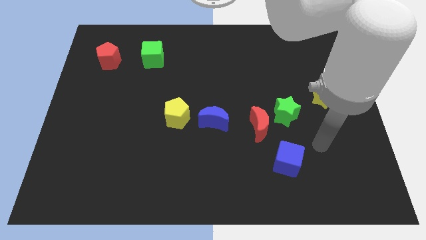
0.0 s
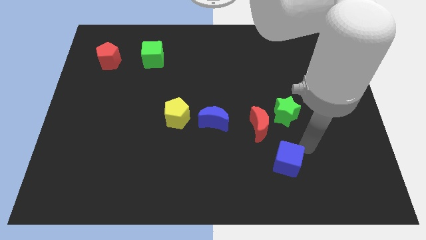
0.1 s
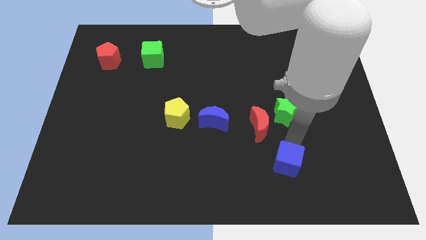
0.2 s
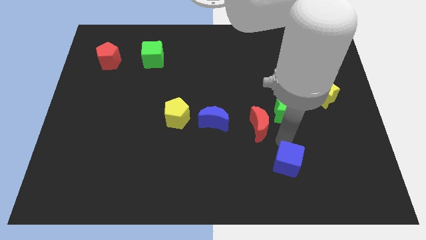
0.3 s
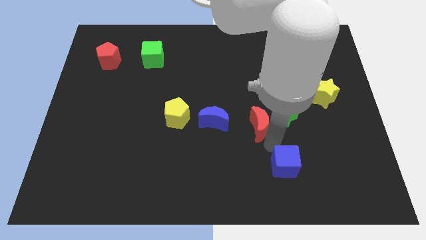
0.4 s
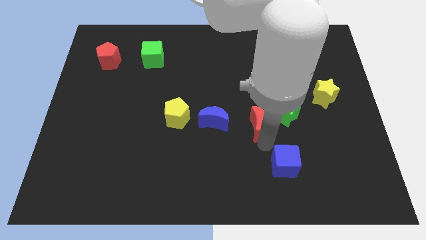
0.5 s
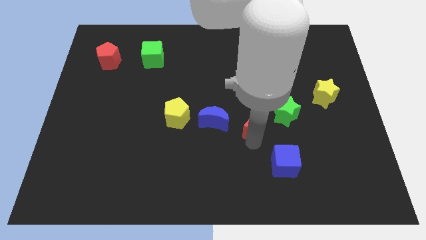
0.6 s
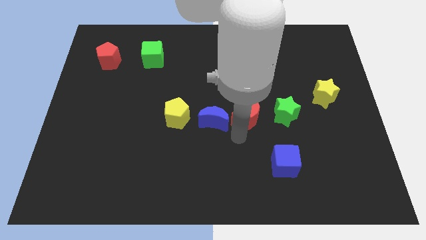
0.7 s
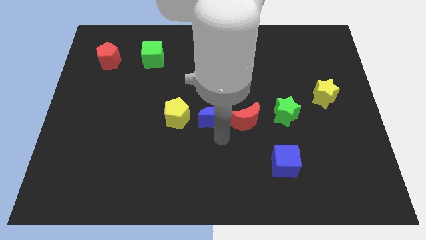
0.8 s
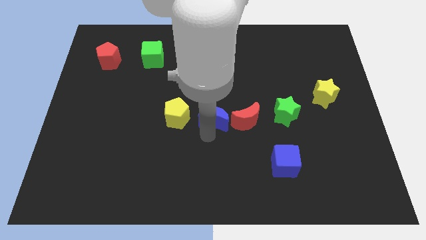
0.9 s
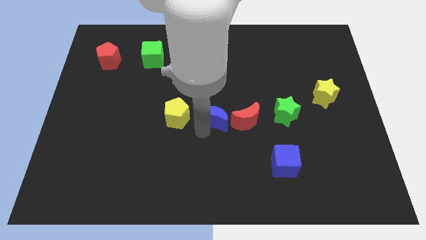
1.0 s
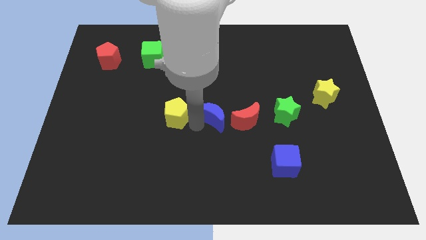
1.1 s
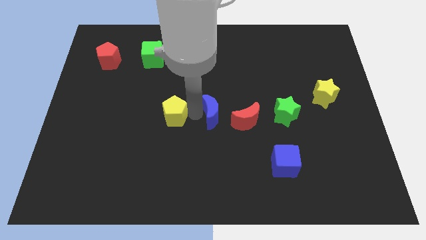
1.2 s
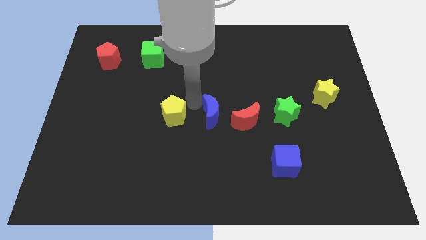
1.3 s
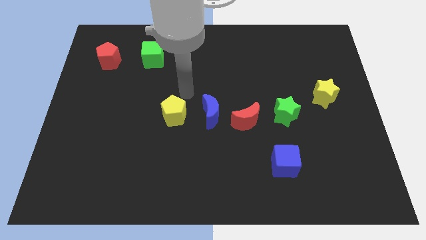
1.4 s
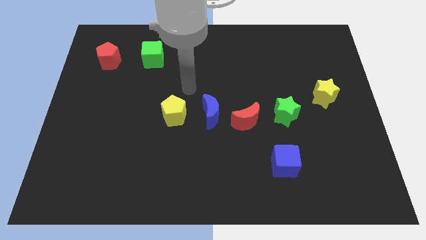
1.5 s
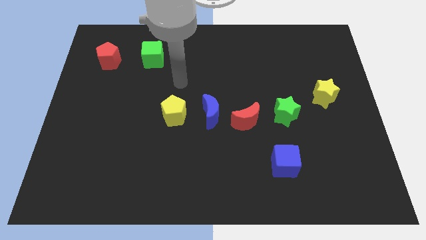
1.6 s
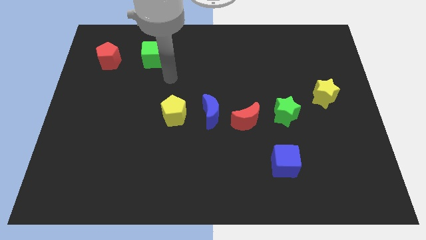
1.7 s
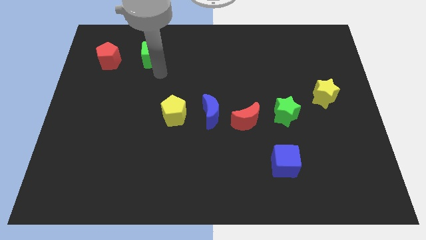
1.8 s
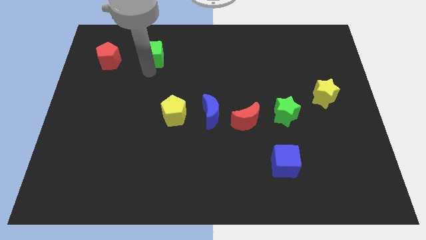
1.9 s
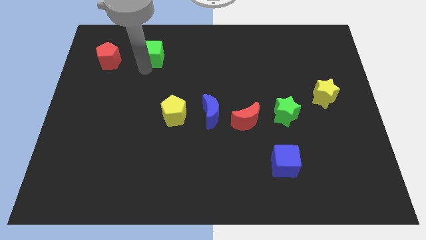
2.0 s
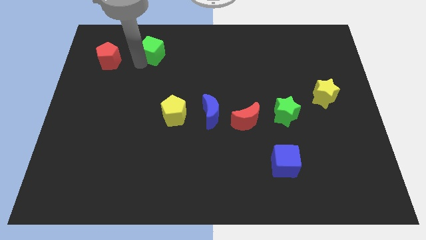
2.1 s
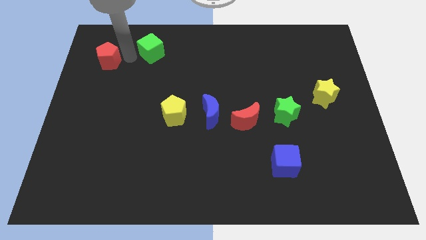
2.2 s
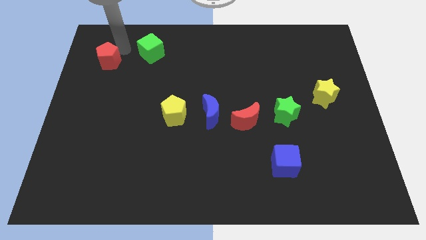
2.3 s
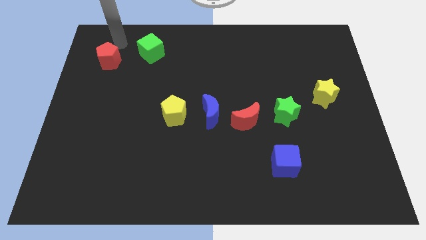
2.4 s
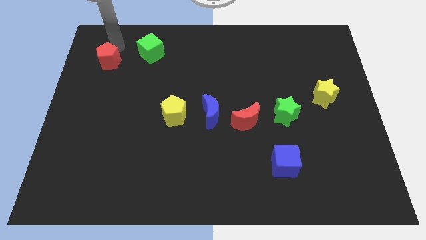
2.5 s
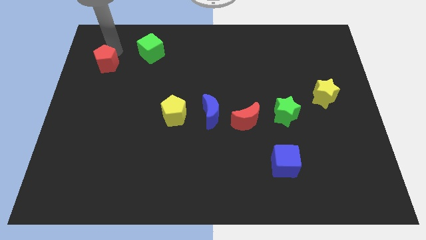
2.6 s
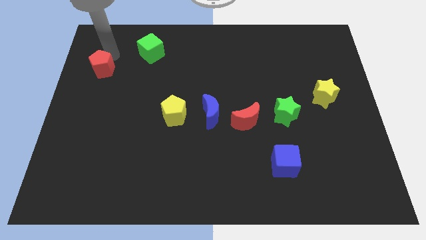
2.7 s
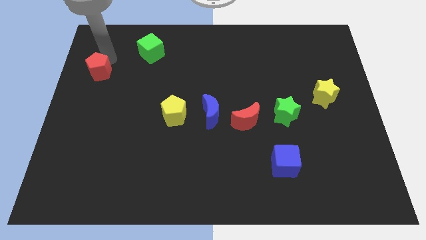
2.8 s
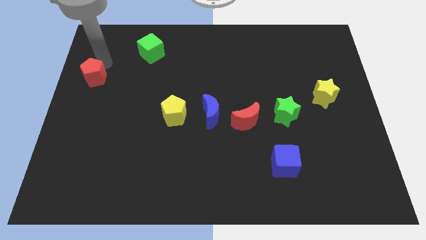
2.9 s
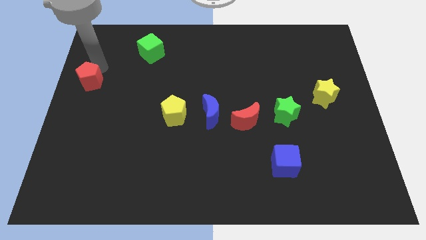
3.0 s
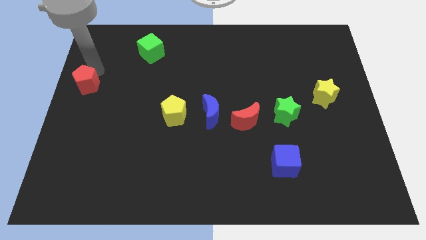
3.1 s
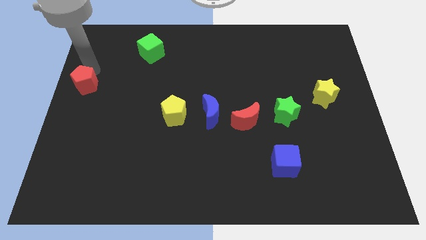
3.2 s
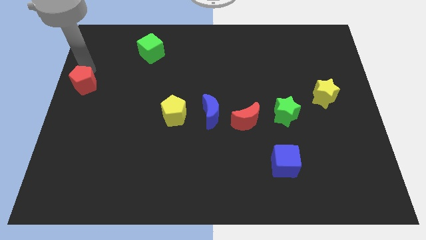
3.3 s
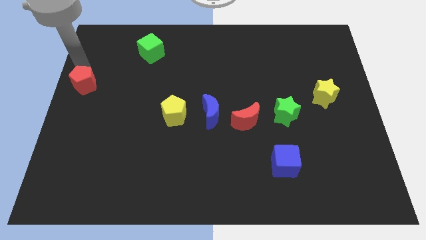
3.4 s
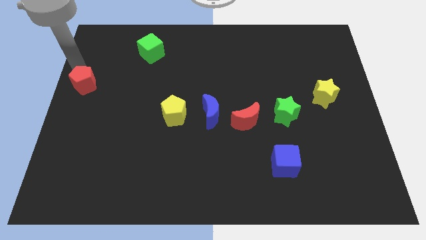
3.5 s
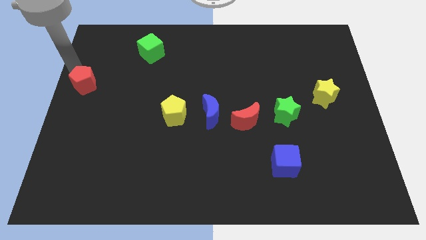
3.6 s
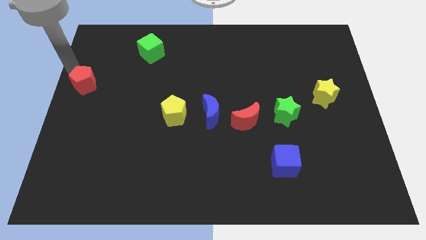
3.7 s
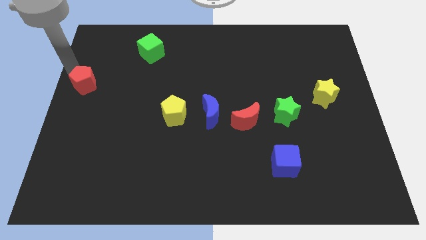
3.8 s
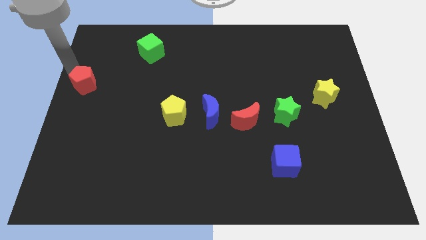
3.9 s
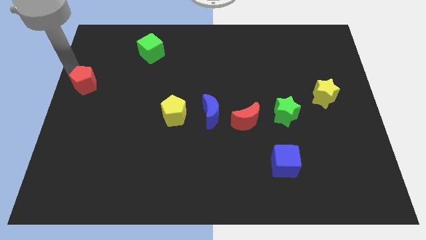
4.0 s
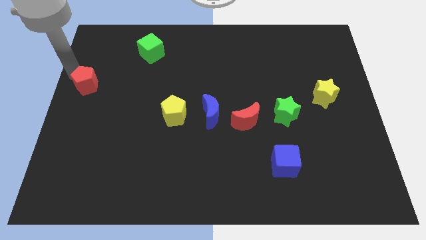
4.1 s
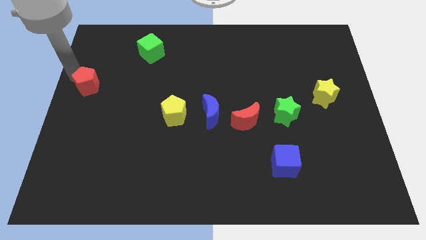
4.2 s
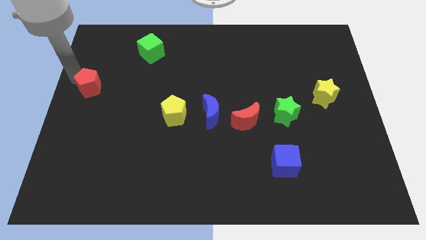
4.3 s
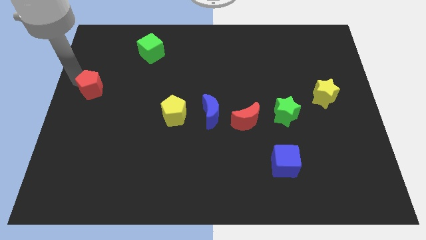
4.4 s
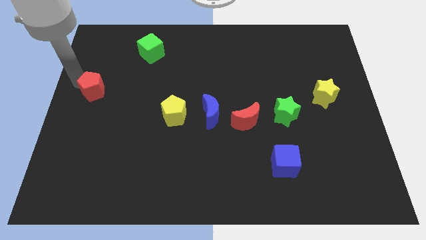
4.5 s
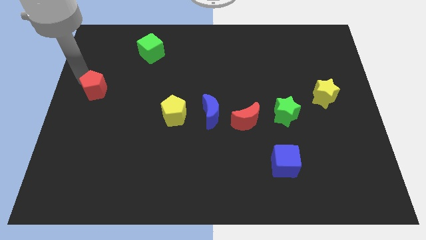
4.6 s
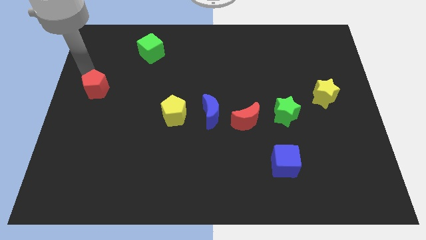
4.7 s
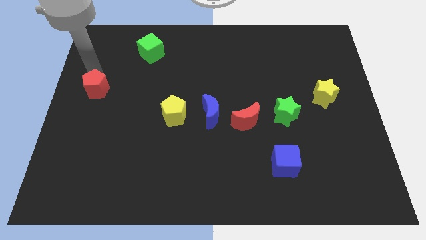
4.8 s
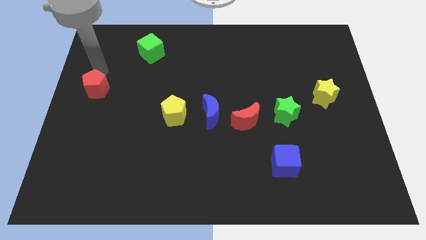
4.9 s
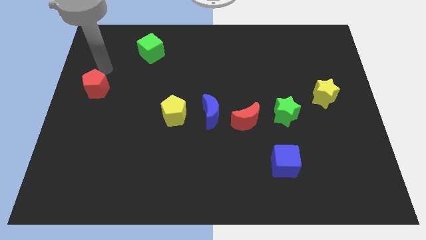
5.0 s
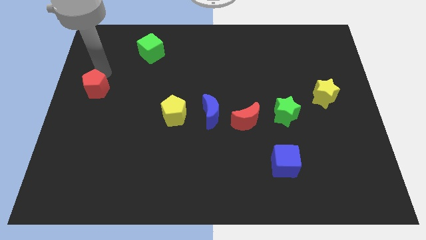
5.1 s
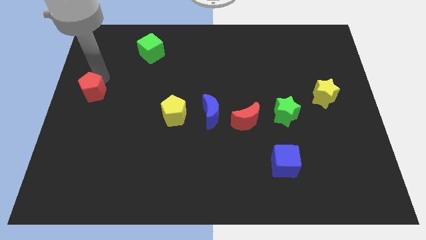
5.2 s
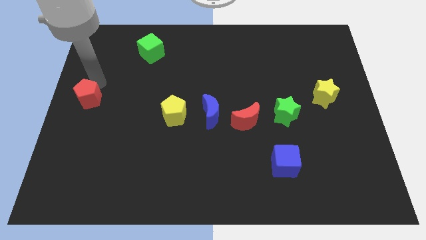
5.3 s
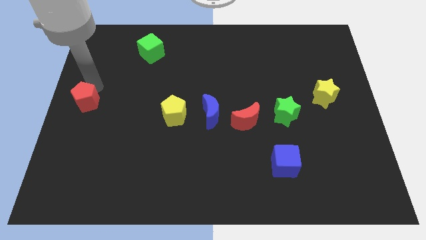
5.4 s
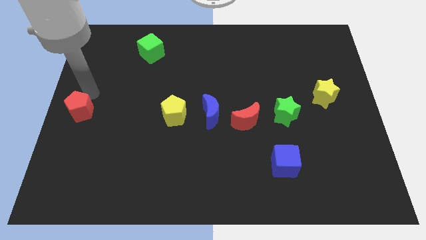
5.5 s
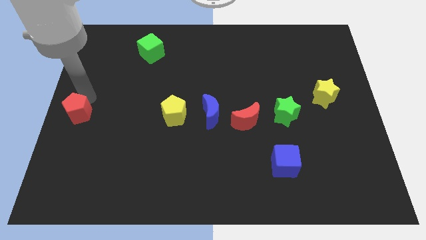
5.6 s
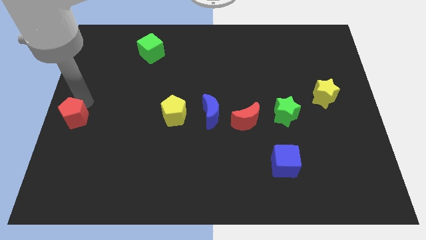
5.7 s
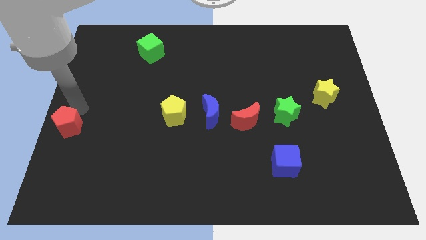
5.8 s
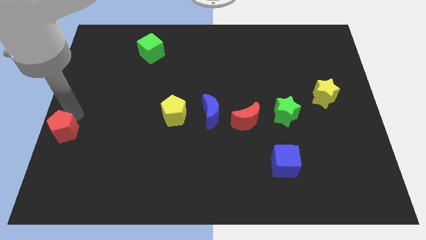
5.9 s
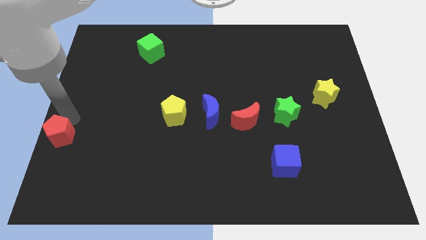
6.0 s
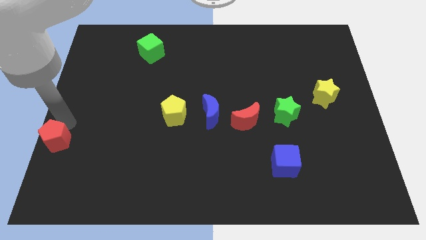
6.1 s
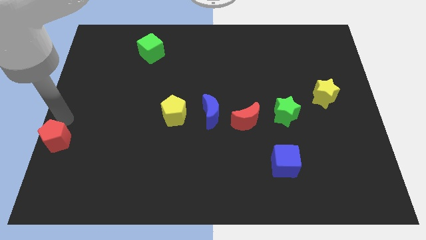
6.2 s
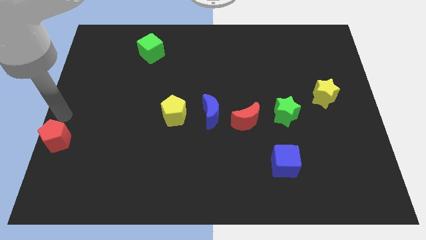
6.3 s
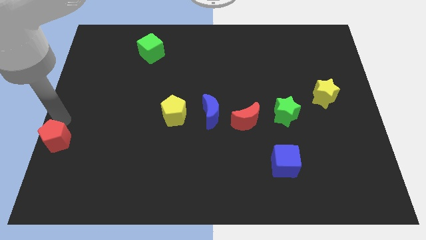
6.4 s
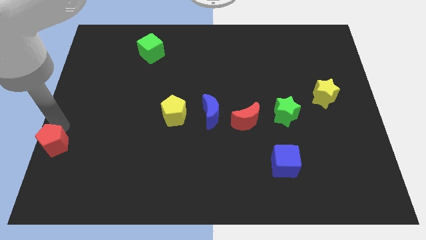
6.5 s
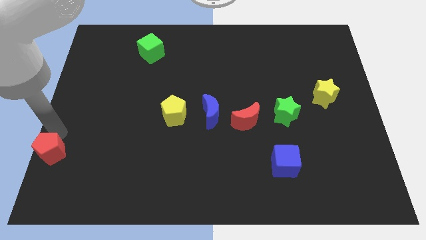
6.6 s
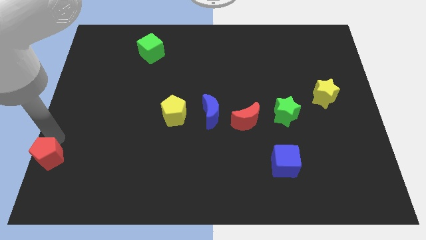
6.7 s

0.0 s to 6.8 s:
move the red pentagon to the bottom left corner

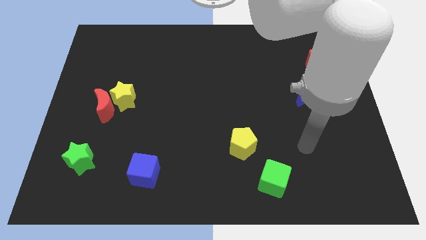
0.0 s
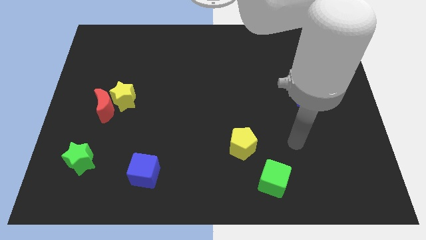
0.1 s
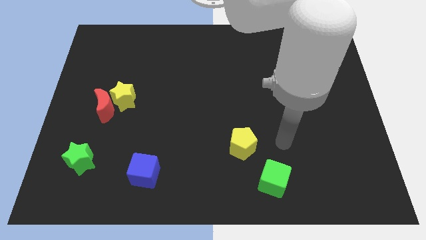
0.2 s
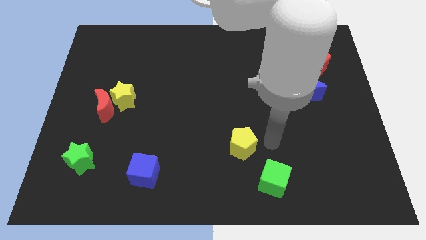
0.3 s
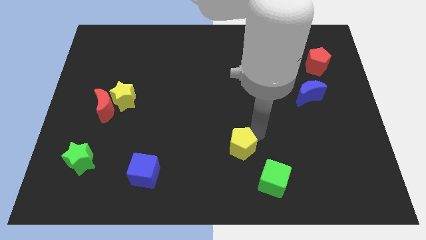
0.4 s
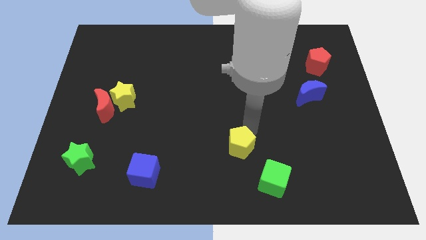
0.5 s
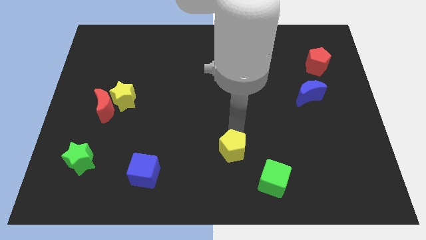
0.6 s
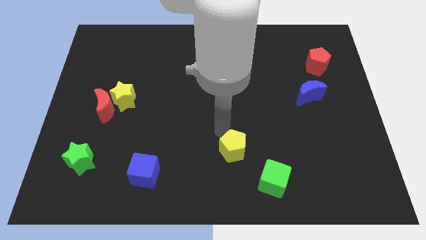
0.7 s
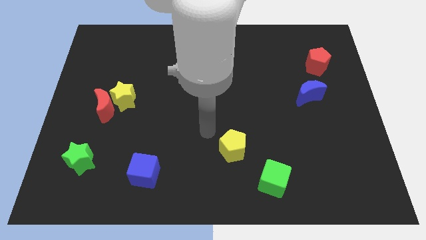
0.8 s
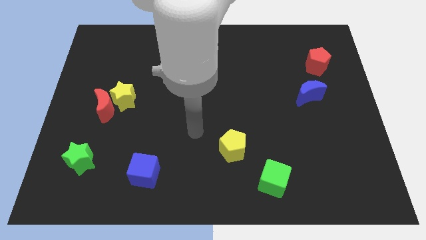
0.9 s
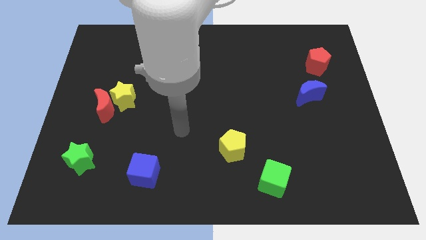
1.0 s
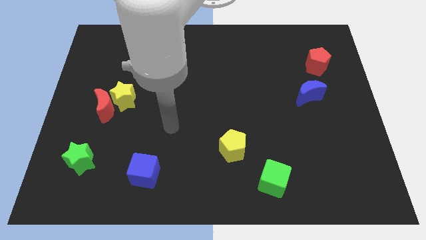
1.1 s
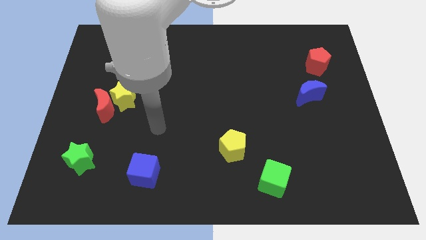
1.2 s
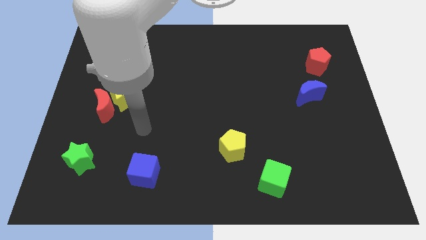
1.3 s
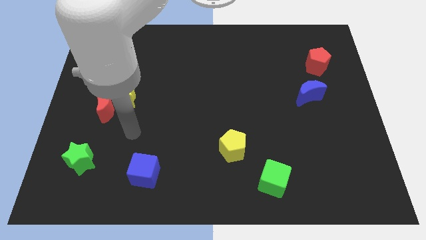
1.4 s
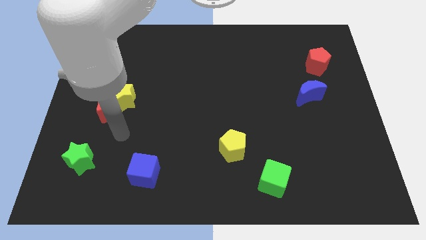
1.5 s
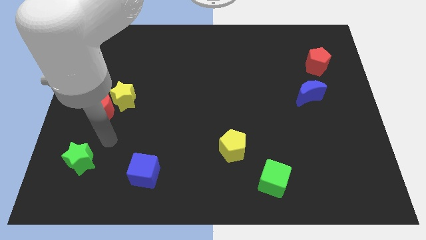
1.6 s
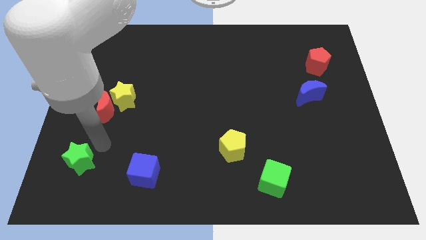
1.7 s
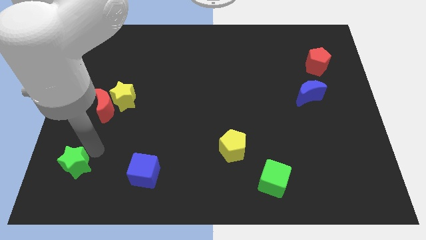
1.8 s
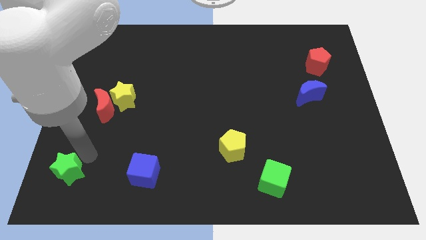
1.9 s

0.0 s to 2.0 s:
push the green star to the bottom left corner
